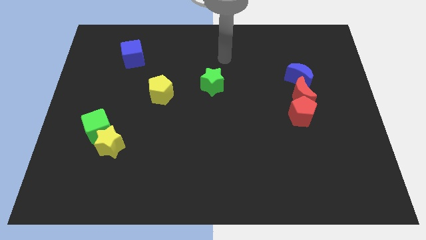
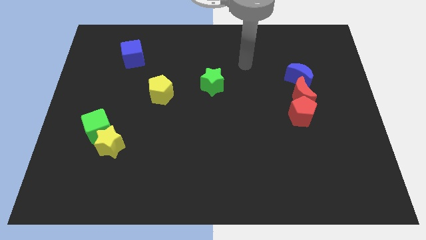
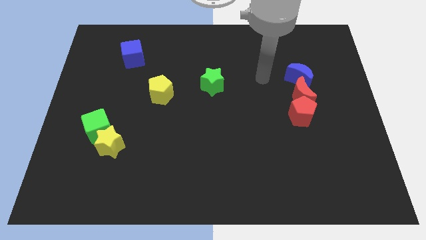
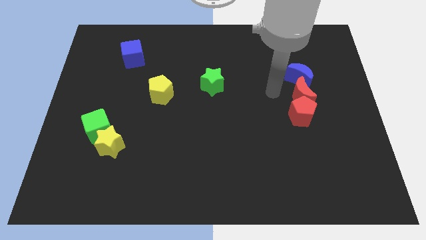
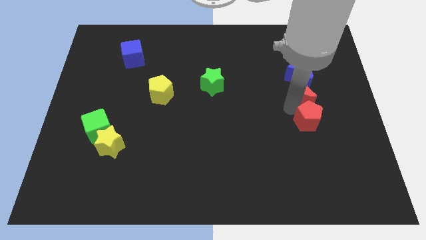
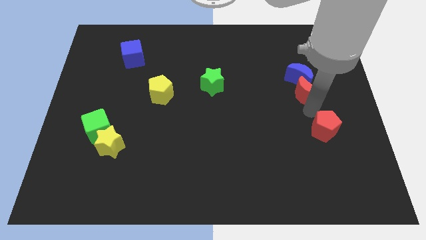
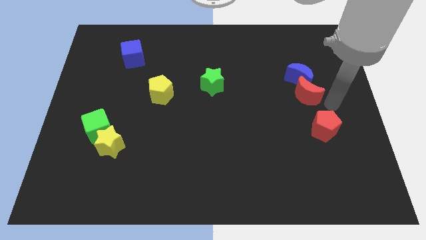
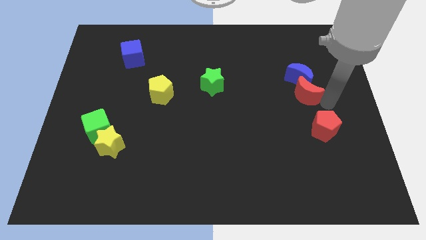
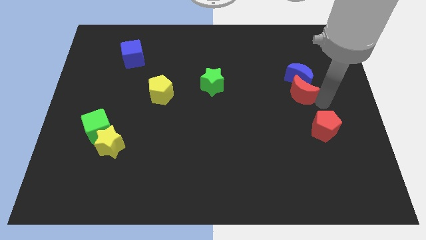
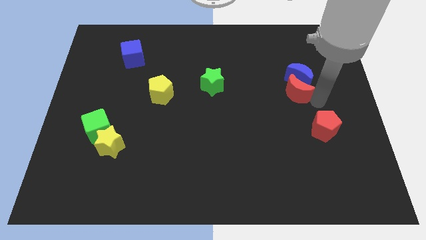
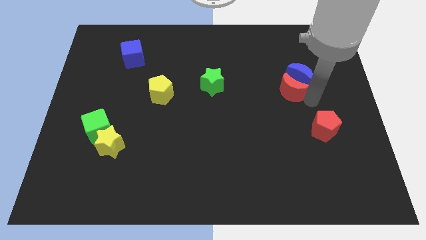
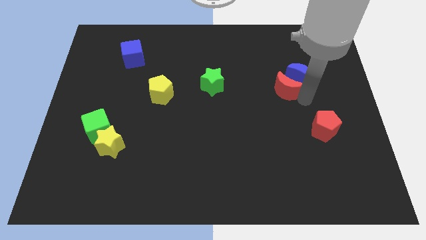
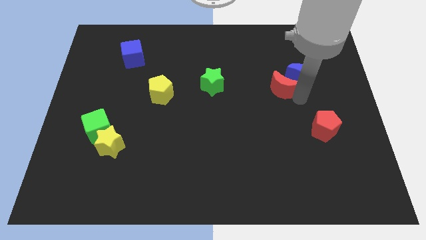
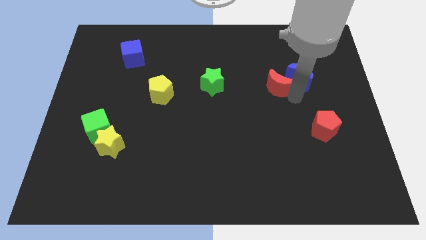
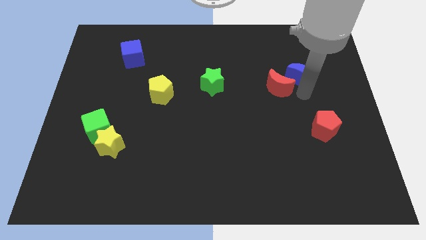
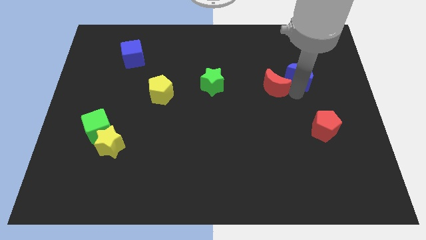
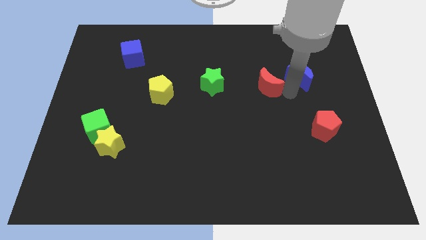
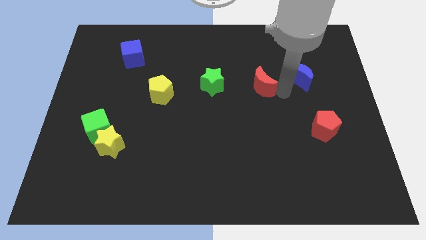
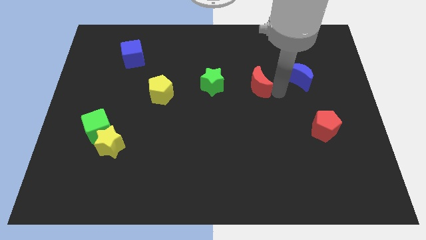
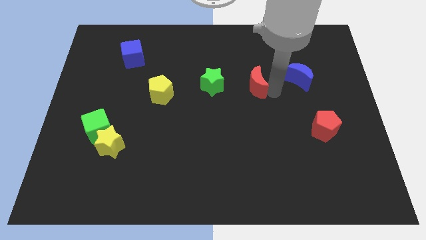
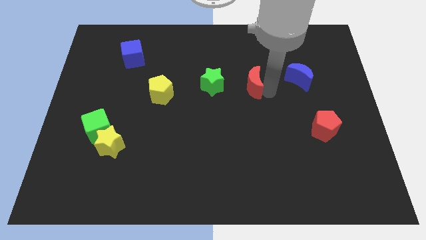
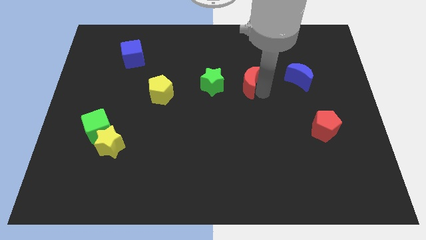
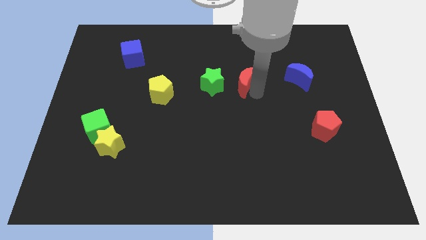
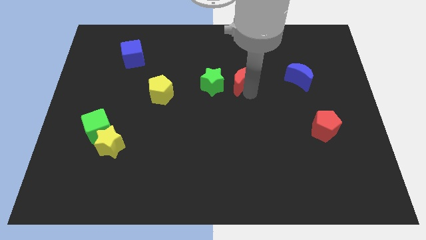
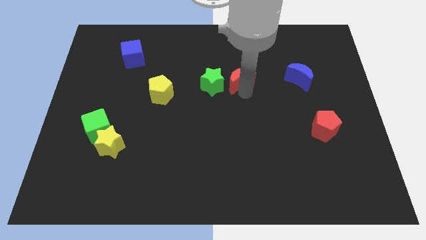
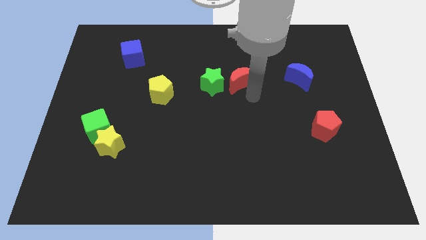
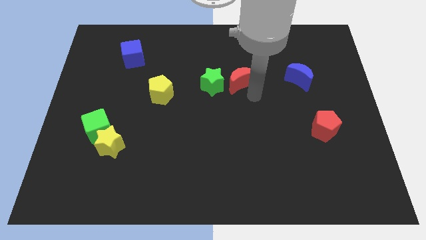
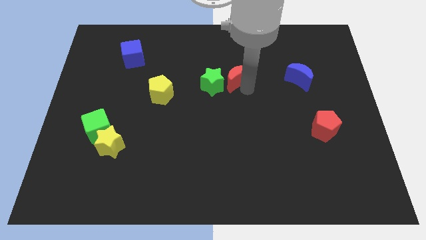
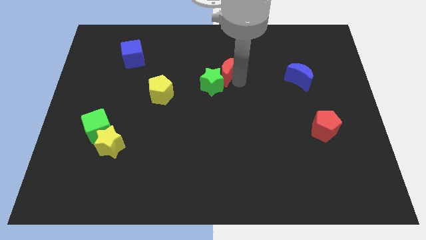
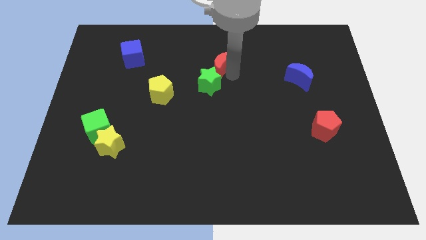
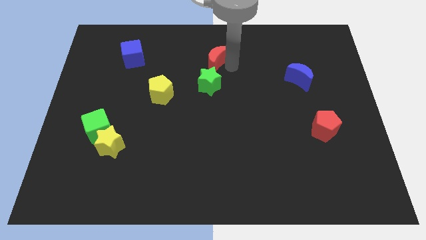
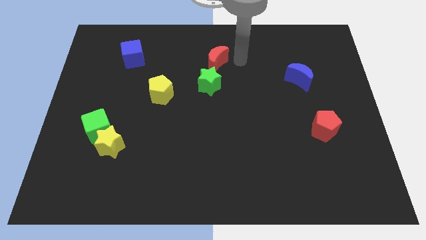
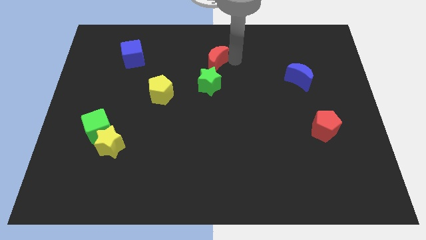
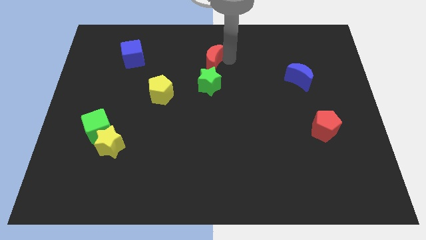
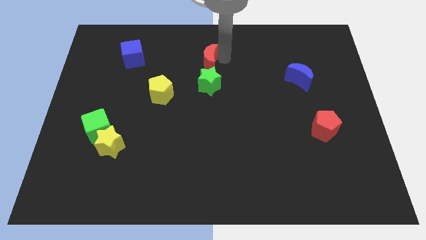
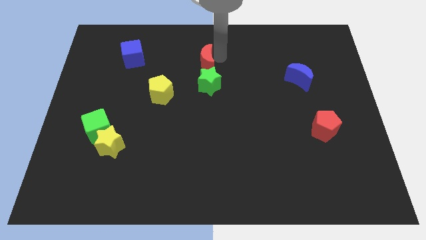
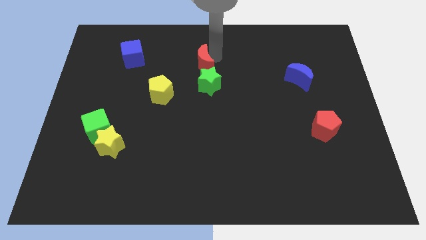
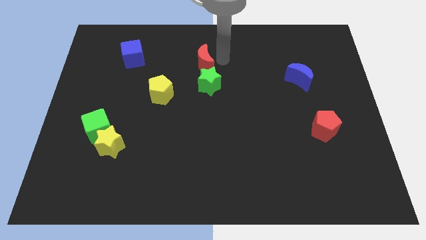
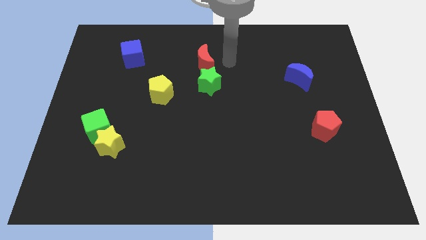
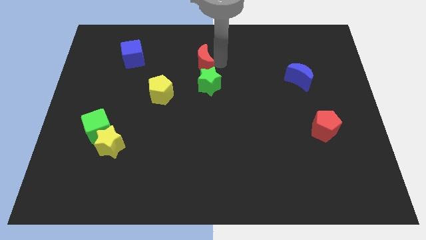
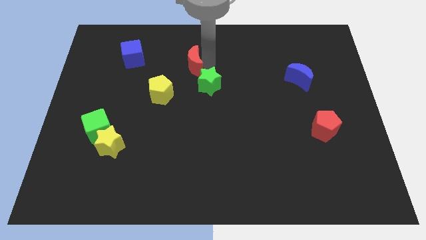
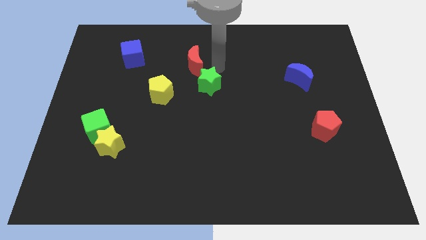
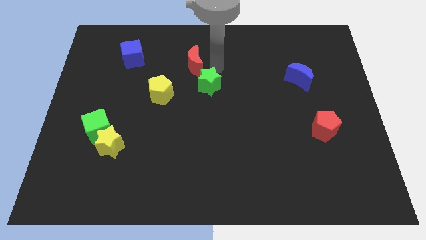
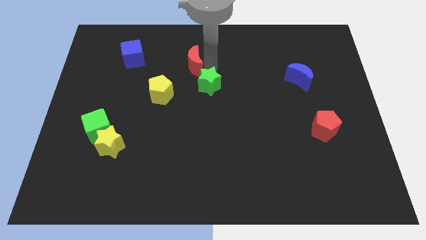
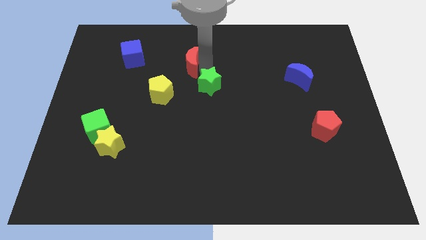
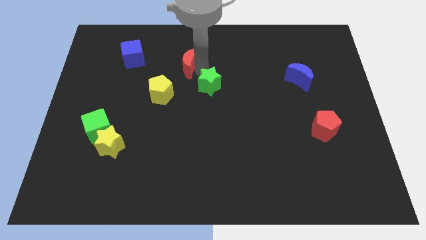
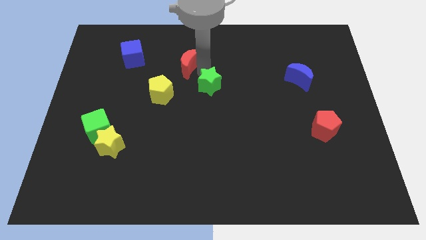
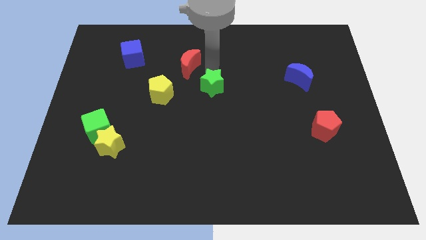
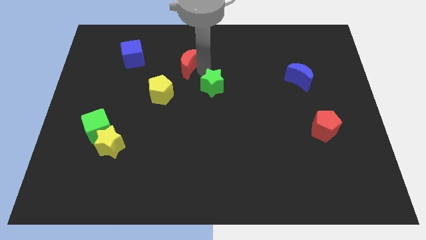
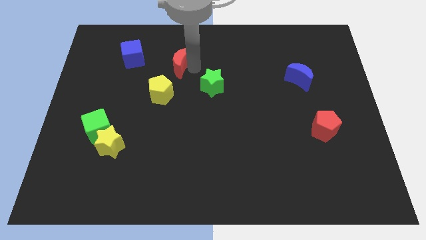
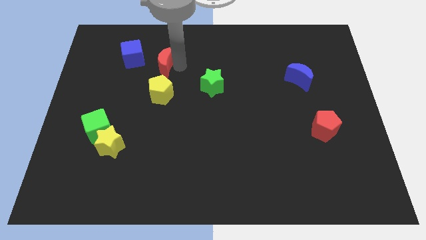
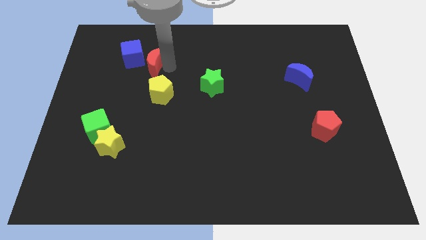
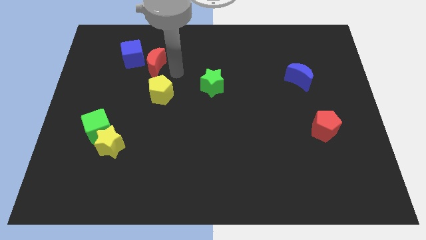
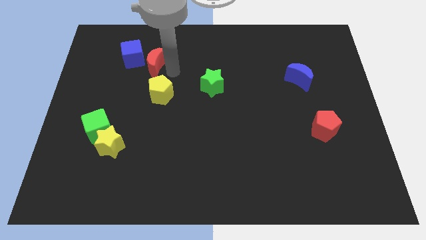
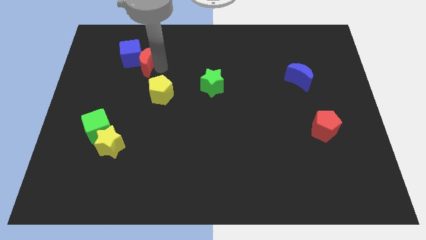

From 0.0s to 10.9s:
slide the red moon towards the blue cube

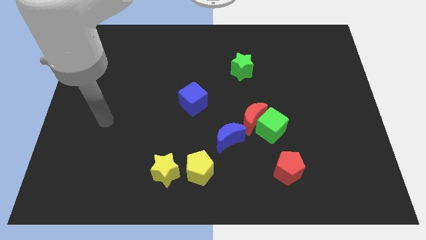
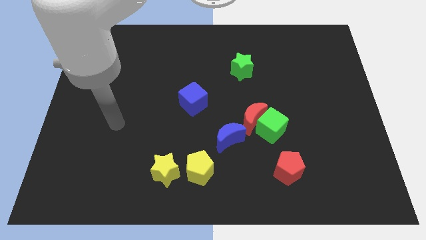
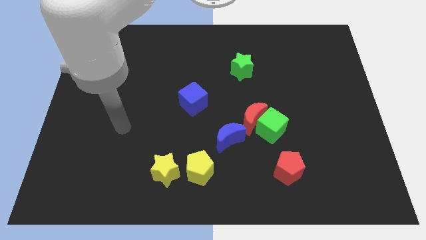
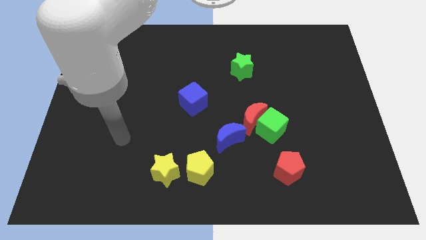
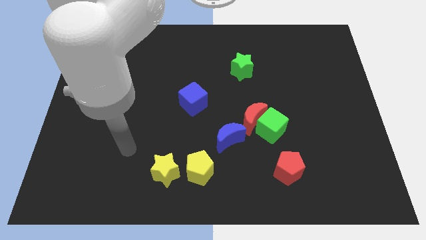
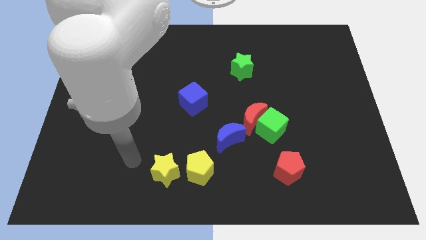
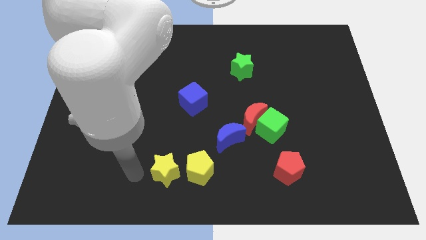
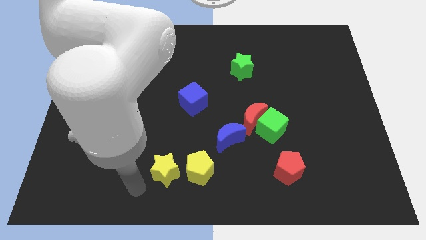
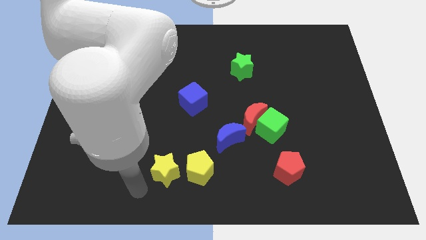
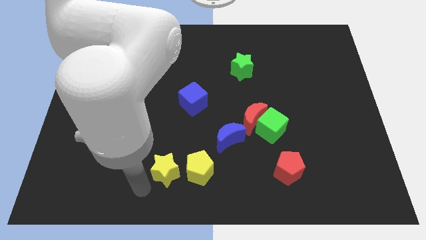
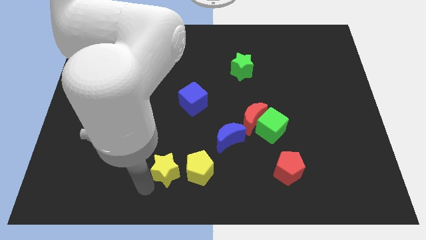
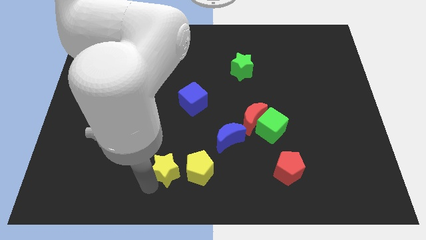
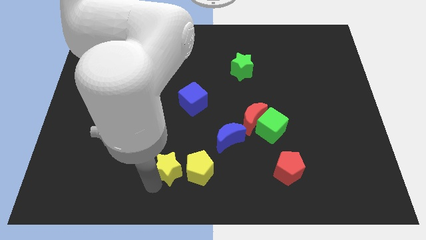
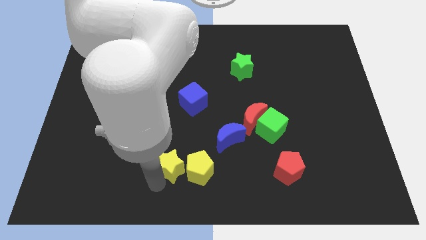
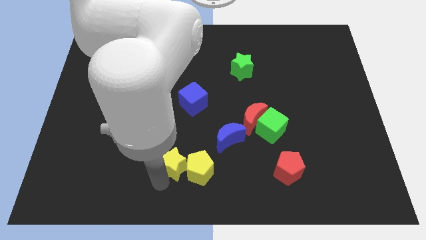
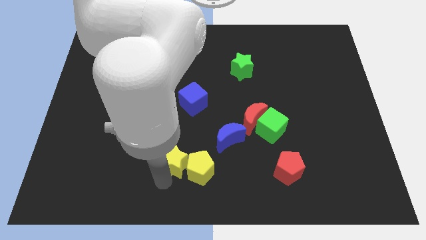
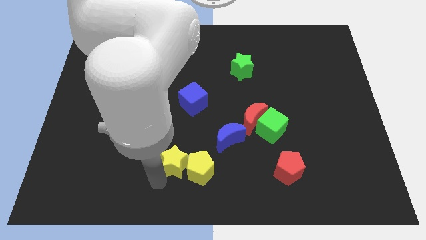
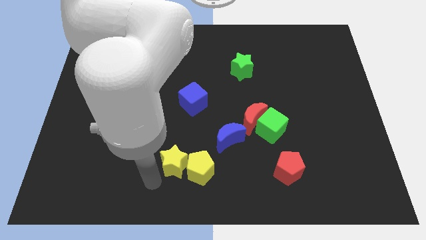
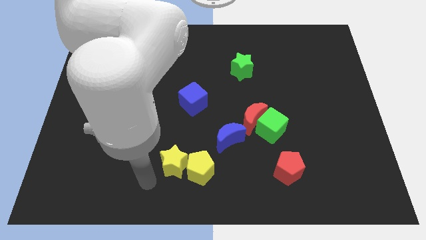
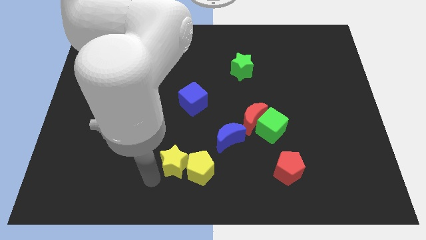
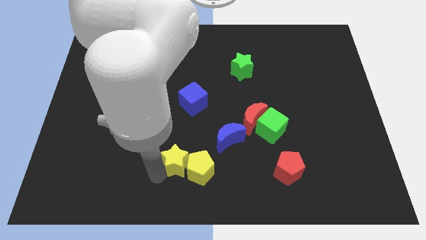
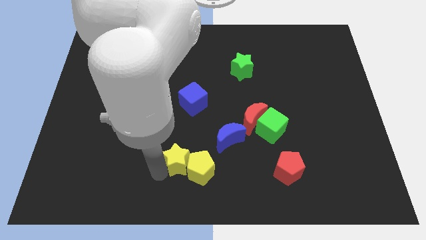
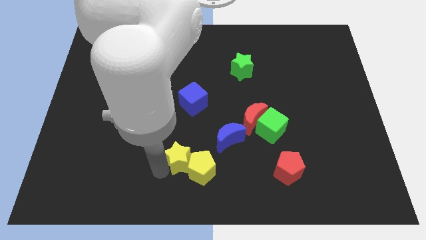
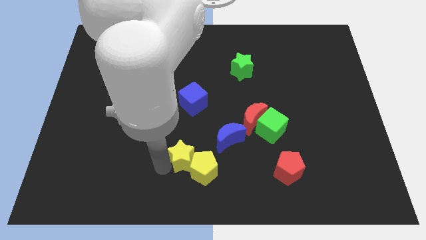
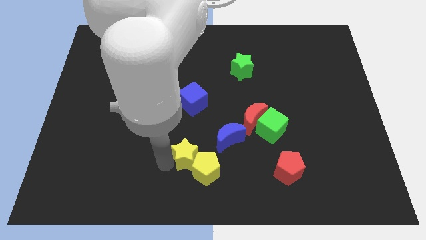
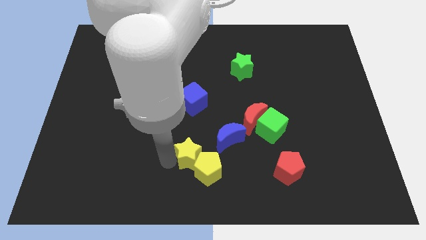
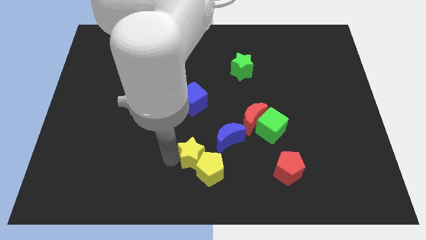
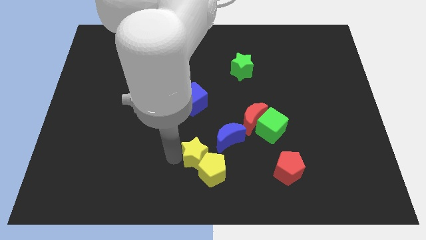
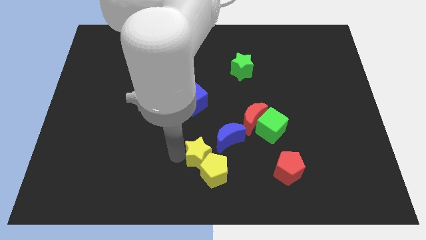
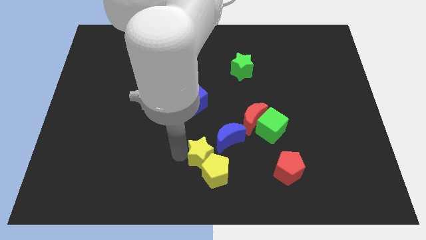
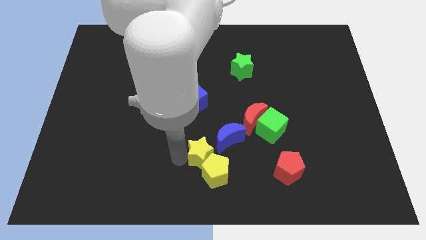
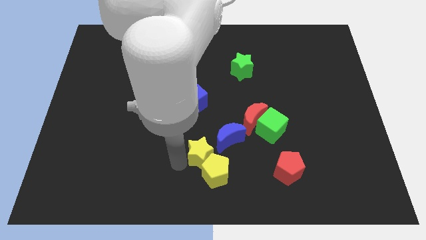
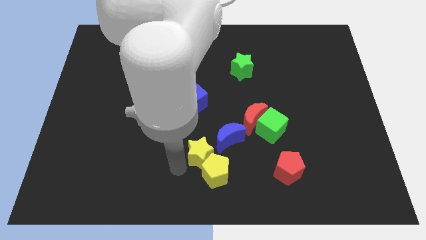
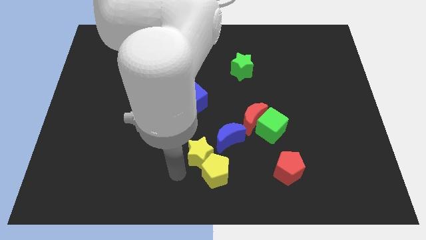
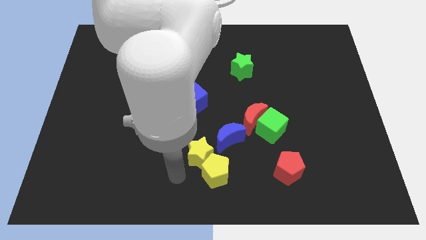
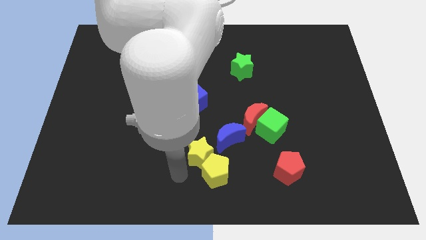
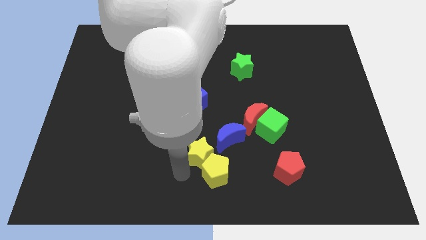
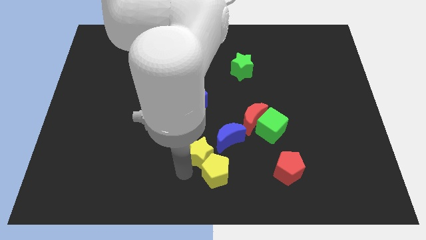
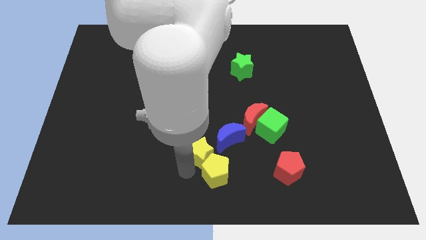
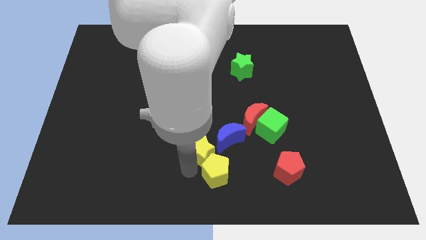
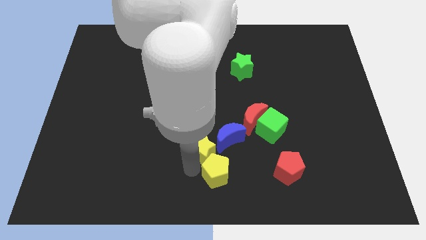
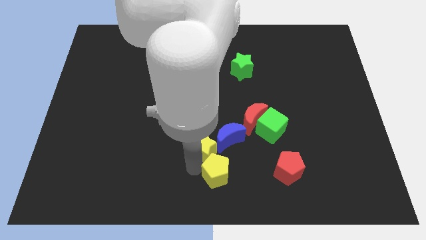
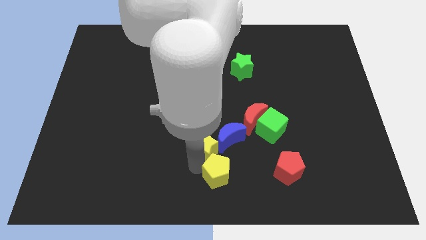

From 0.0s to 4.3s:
push the yellow star next to the blue moon
